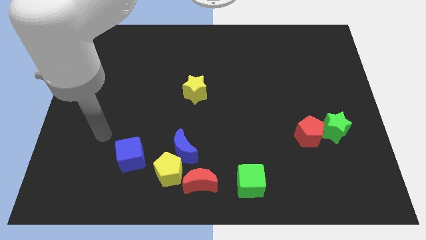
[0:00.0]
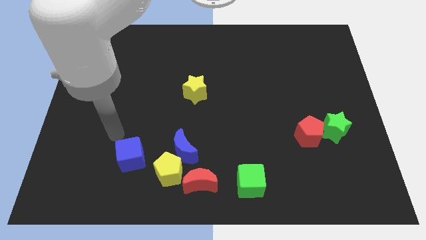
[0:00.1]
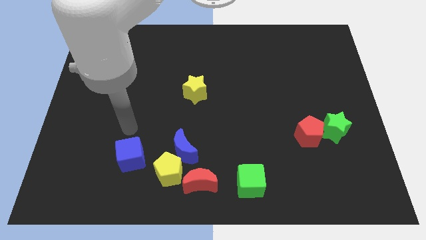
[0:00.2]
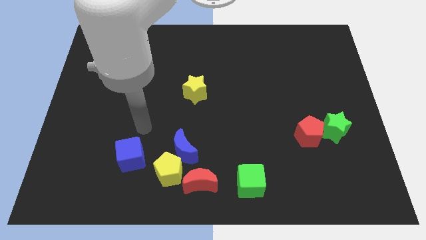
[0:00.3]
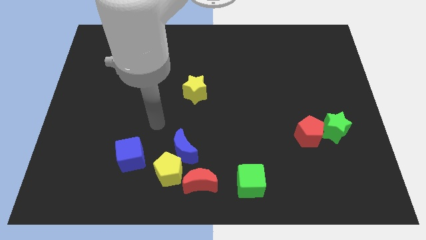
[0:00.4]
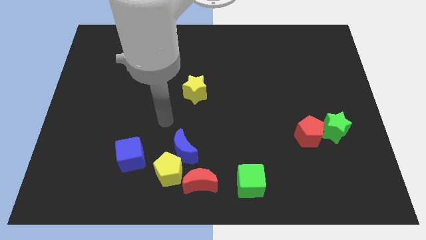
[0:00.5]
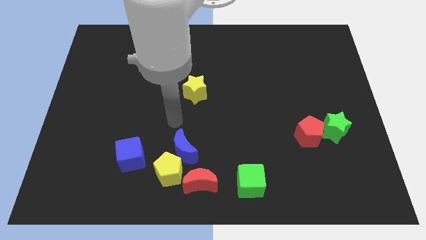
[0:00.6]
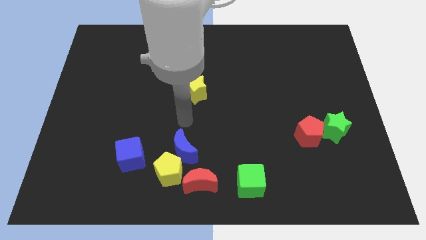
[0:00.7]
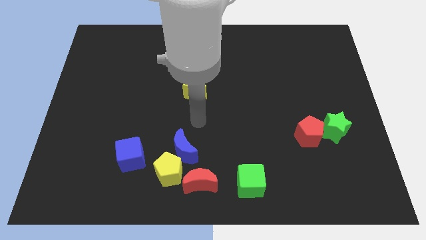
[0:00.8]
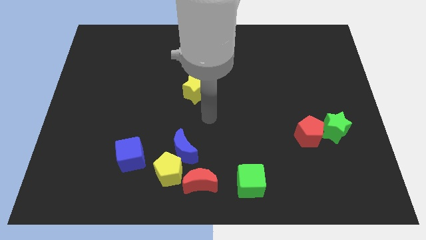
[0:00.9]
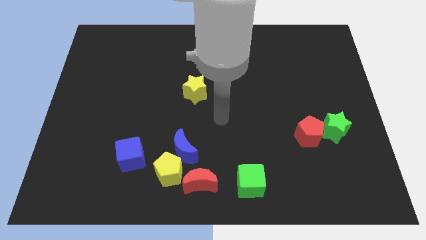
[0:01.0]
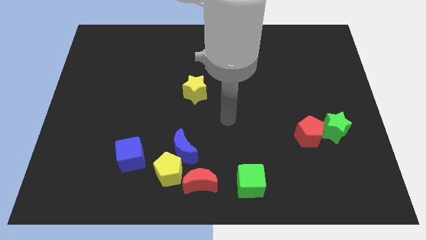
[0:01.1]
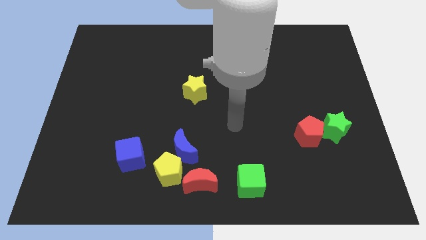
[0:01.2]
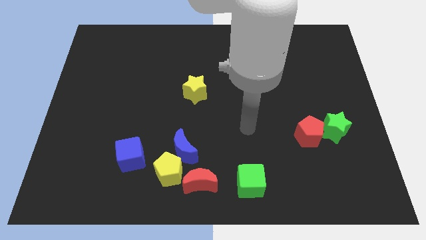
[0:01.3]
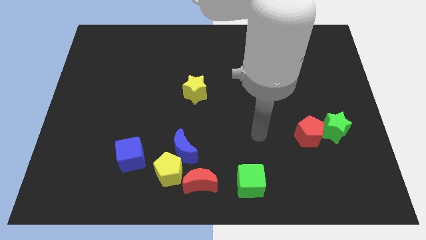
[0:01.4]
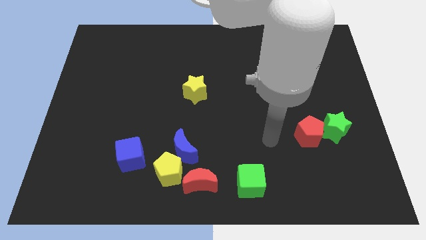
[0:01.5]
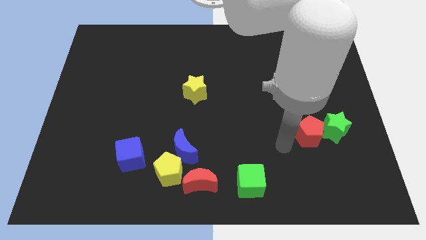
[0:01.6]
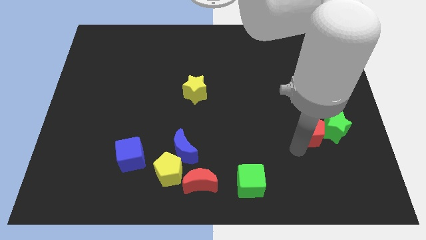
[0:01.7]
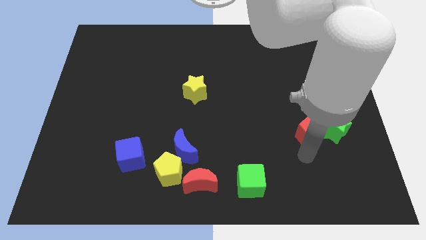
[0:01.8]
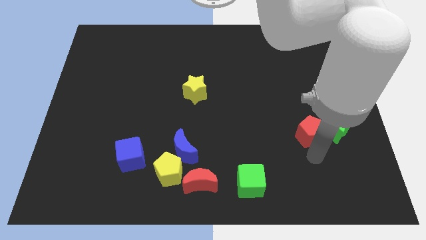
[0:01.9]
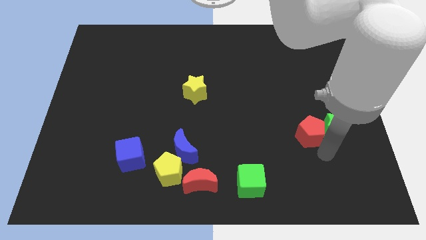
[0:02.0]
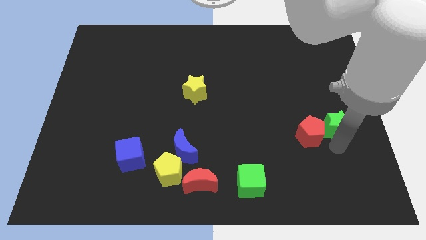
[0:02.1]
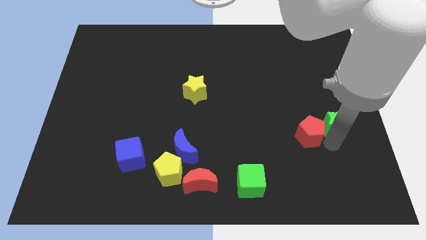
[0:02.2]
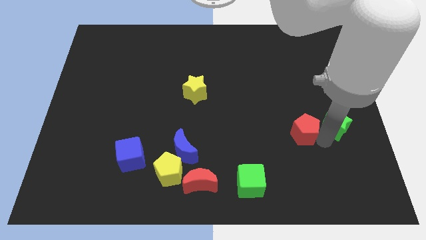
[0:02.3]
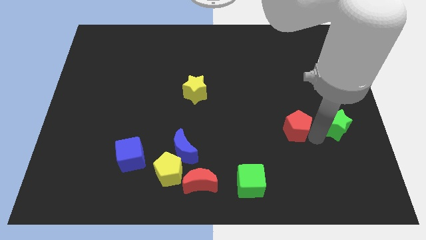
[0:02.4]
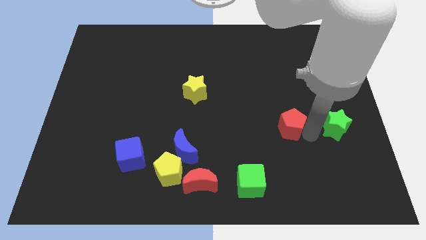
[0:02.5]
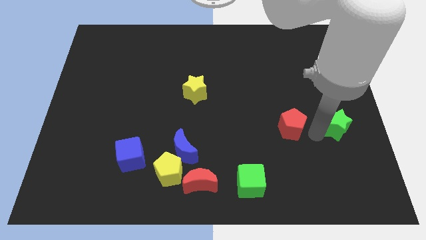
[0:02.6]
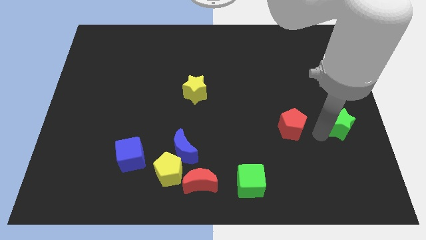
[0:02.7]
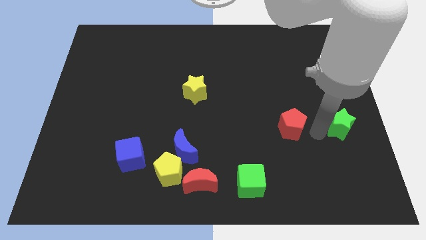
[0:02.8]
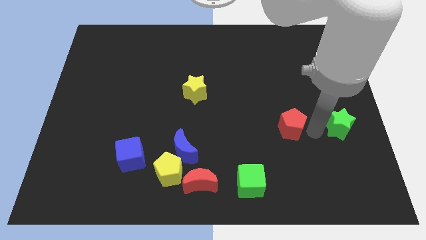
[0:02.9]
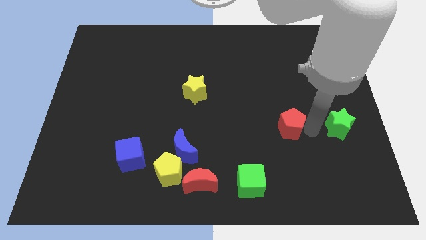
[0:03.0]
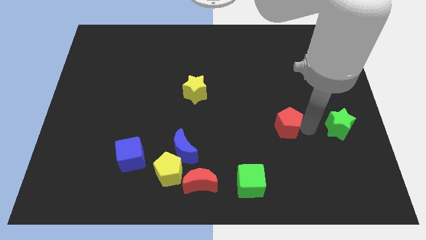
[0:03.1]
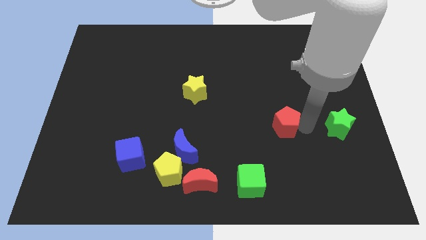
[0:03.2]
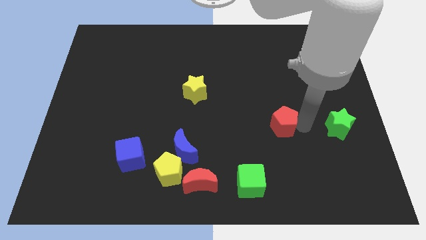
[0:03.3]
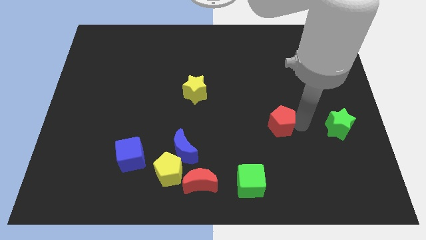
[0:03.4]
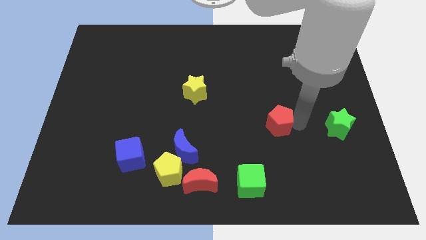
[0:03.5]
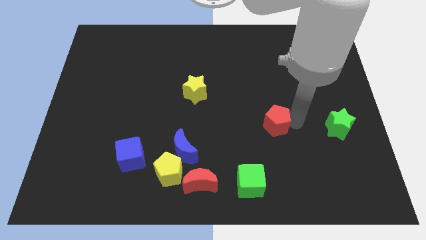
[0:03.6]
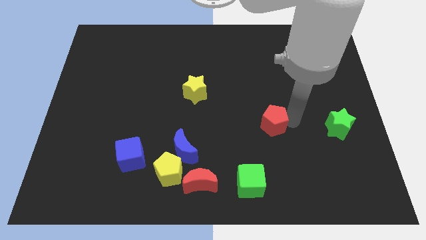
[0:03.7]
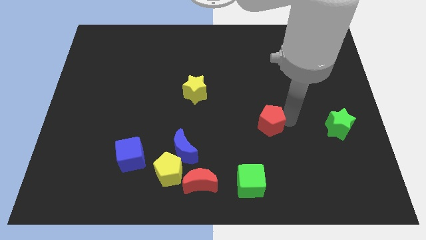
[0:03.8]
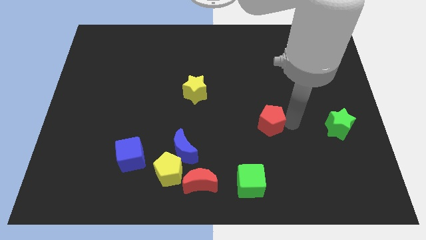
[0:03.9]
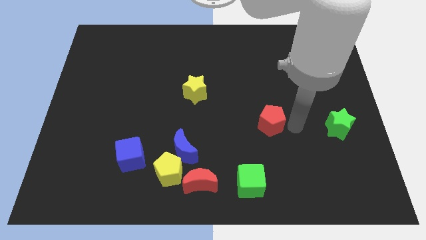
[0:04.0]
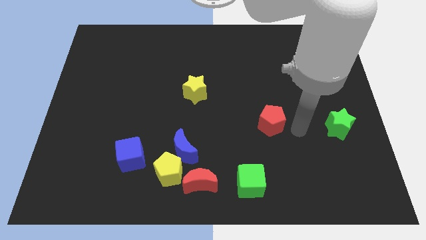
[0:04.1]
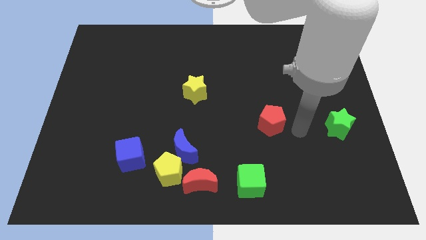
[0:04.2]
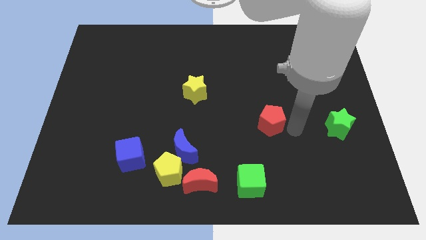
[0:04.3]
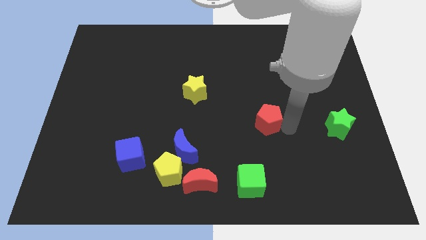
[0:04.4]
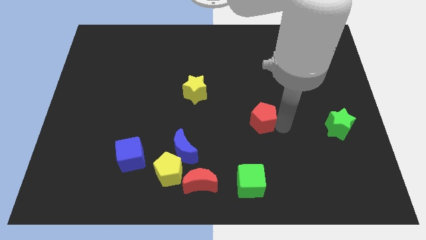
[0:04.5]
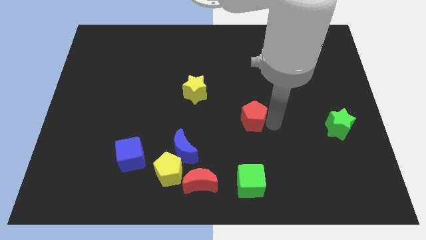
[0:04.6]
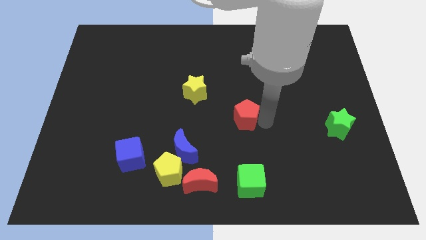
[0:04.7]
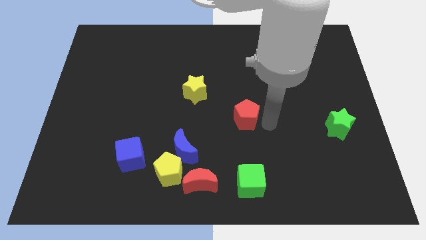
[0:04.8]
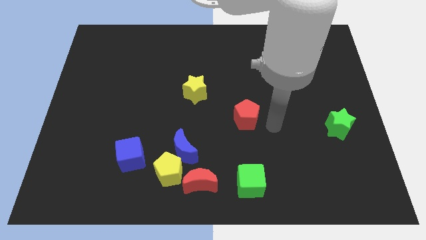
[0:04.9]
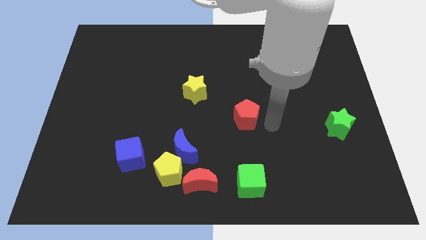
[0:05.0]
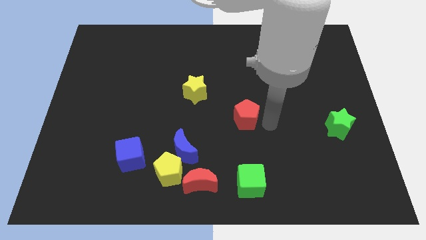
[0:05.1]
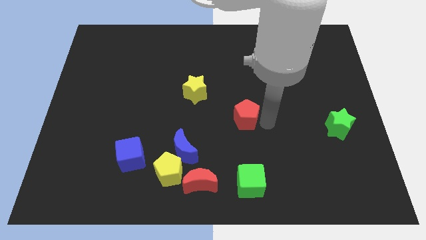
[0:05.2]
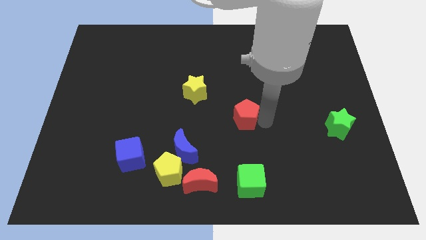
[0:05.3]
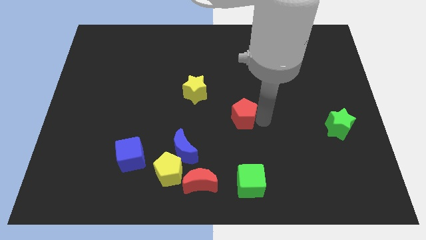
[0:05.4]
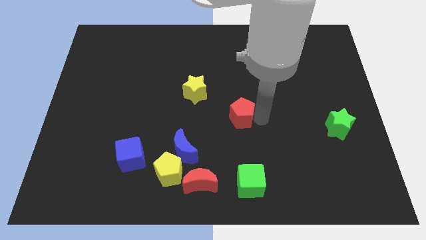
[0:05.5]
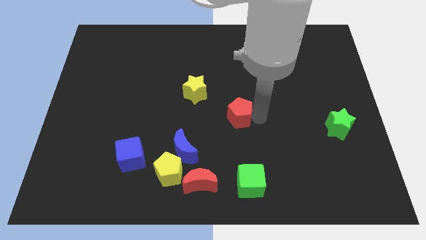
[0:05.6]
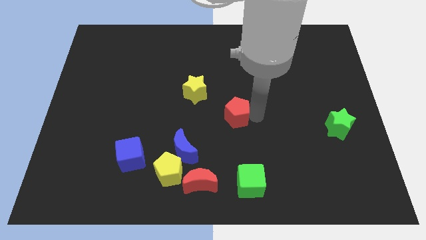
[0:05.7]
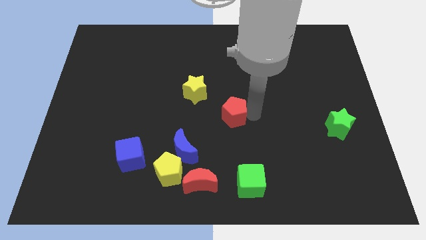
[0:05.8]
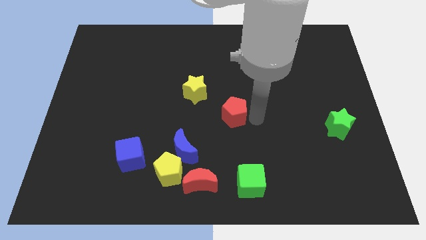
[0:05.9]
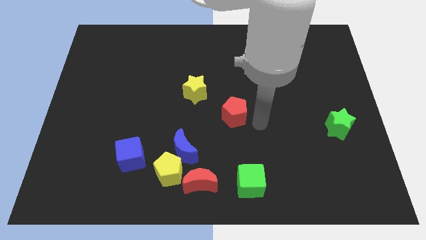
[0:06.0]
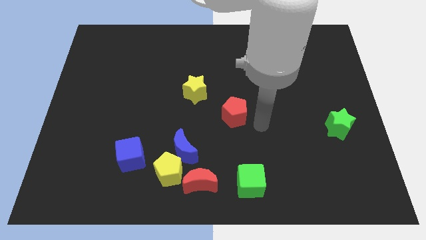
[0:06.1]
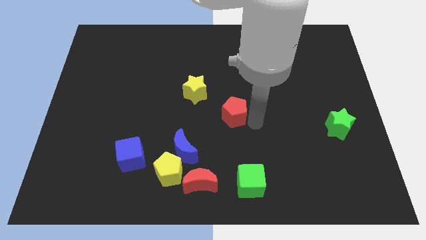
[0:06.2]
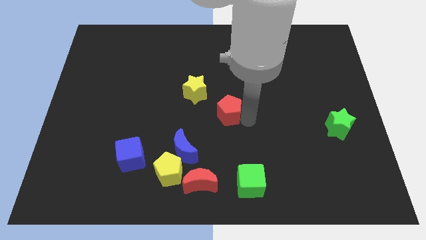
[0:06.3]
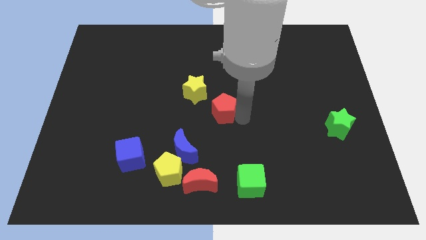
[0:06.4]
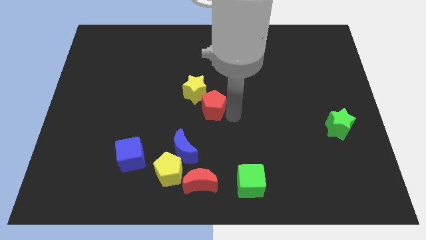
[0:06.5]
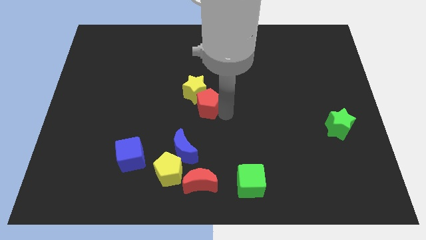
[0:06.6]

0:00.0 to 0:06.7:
push the red pentagon close to the yellow star
